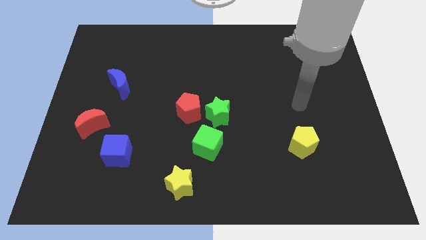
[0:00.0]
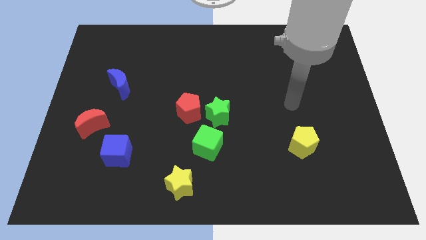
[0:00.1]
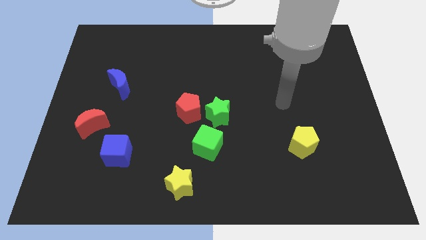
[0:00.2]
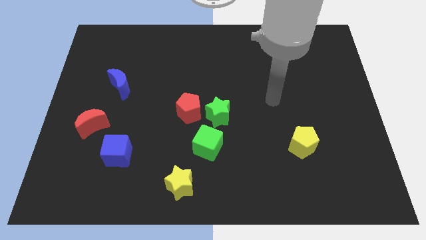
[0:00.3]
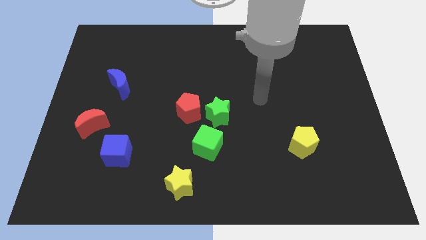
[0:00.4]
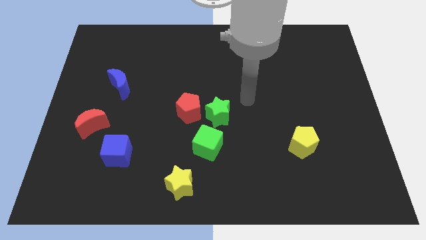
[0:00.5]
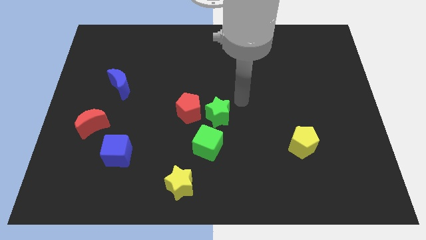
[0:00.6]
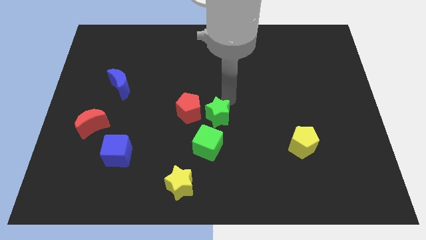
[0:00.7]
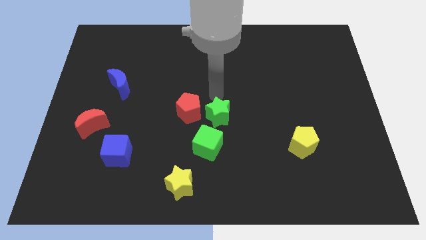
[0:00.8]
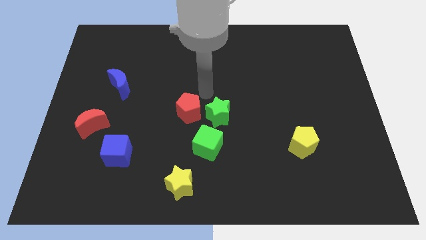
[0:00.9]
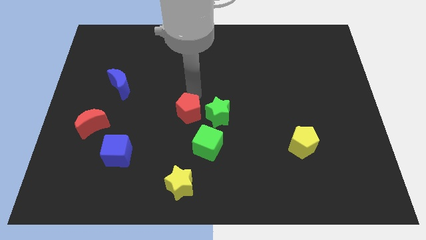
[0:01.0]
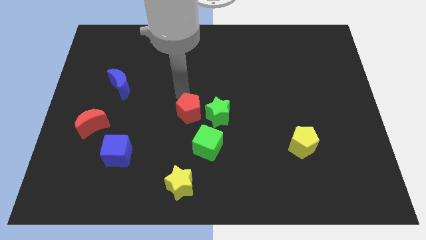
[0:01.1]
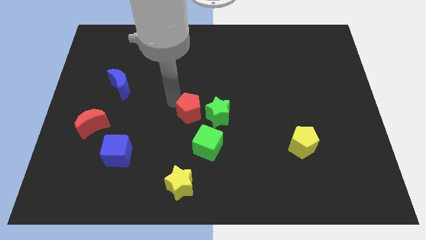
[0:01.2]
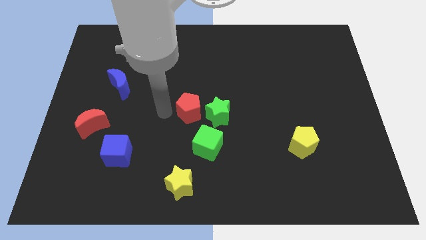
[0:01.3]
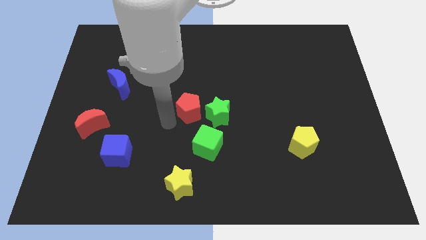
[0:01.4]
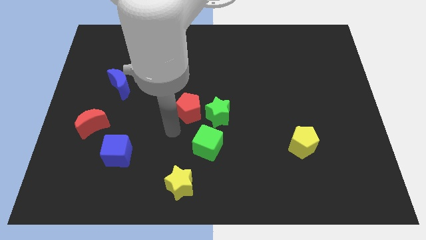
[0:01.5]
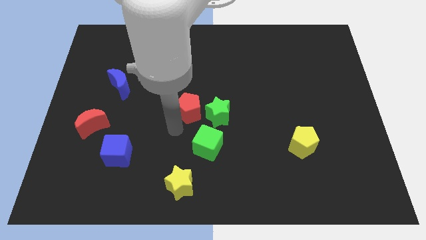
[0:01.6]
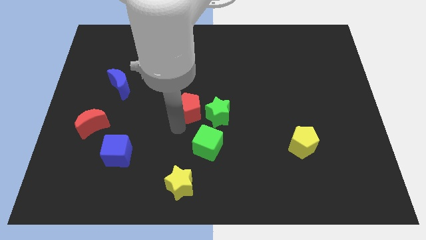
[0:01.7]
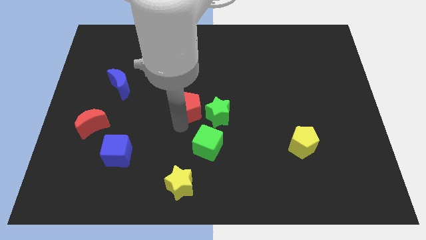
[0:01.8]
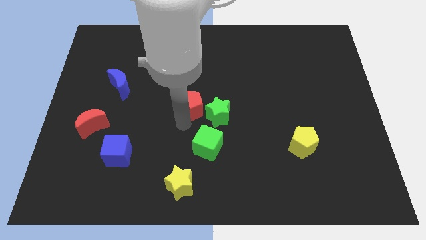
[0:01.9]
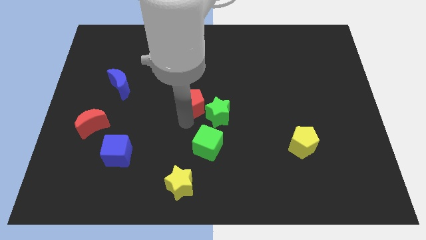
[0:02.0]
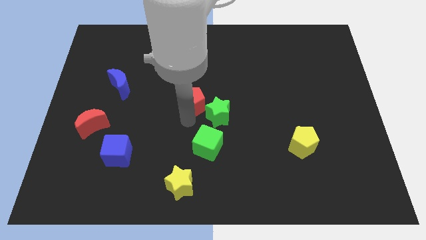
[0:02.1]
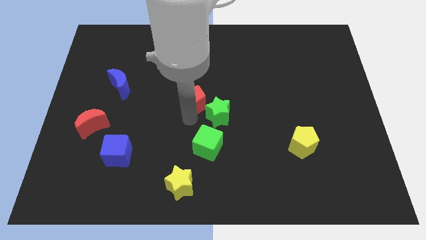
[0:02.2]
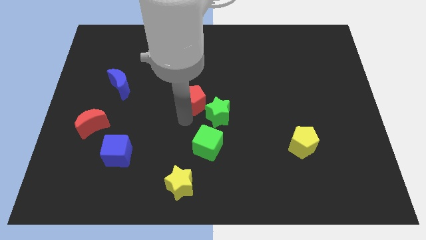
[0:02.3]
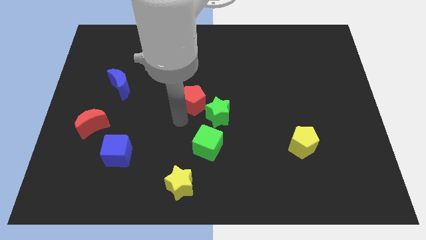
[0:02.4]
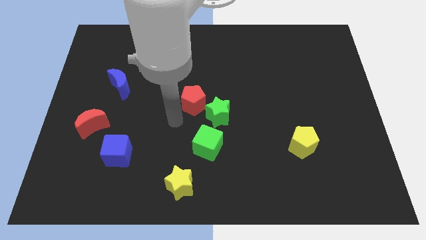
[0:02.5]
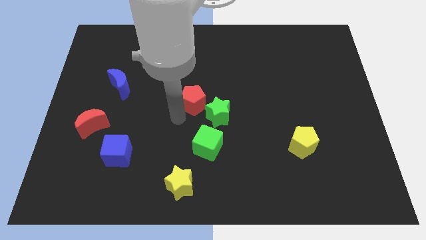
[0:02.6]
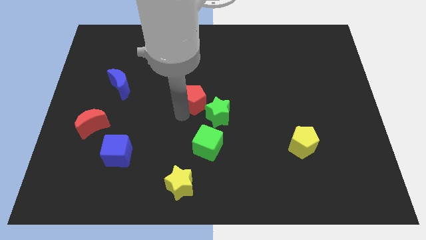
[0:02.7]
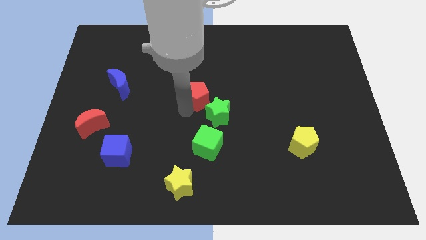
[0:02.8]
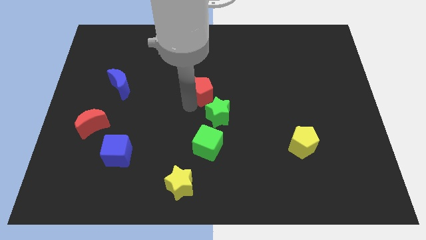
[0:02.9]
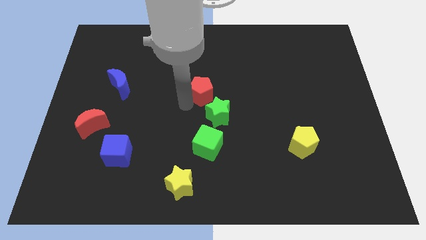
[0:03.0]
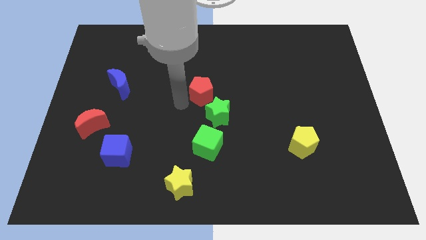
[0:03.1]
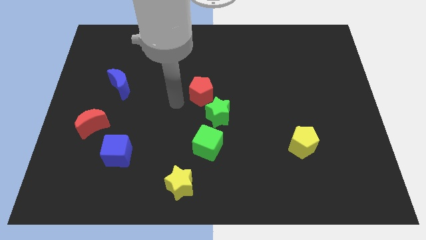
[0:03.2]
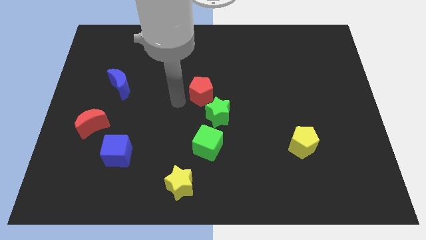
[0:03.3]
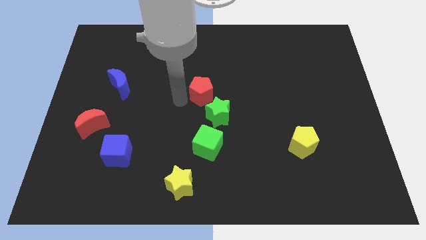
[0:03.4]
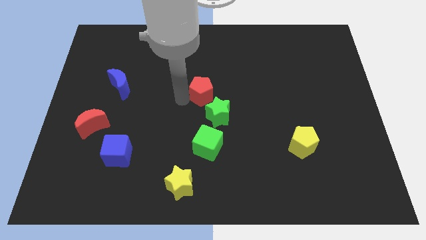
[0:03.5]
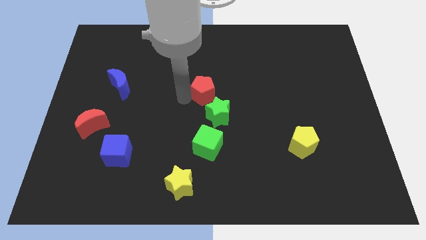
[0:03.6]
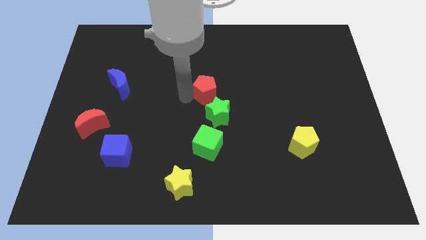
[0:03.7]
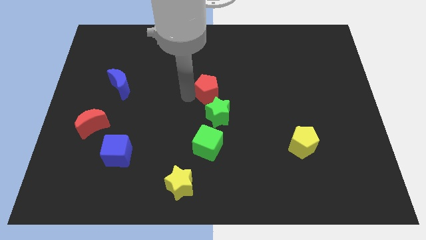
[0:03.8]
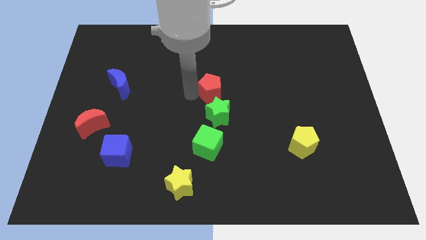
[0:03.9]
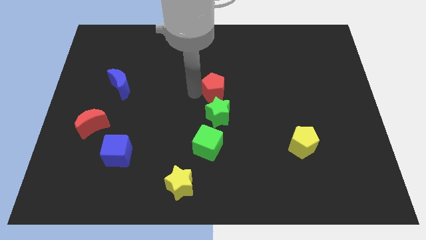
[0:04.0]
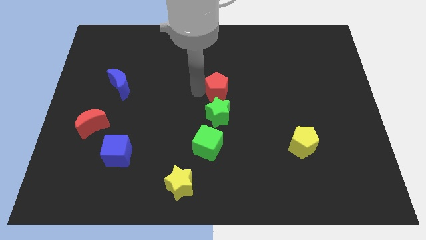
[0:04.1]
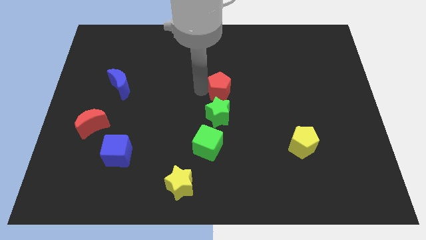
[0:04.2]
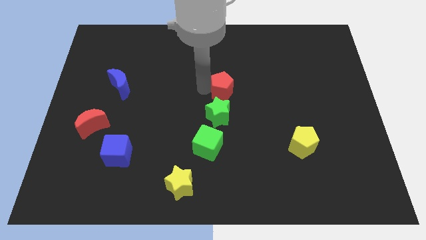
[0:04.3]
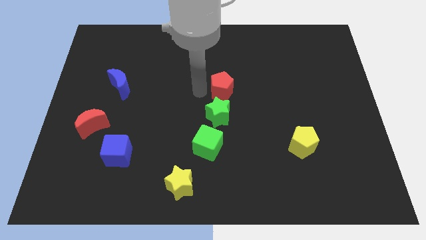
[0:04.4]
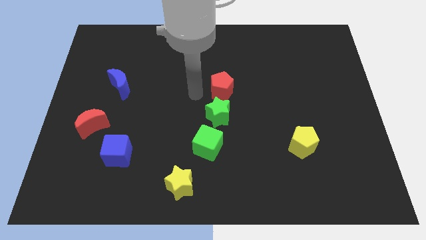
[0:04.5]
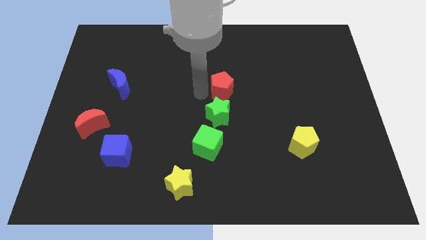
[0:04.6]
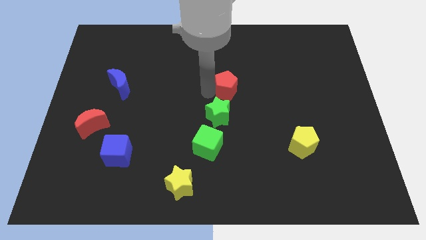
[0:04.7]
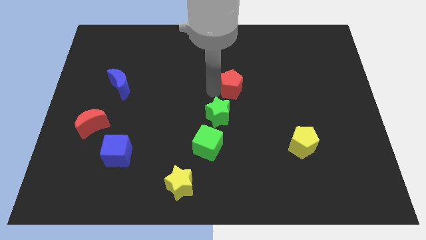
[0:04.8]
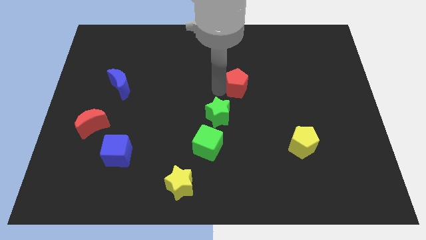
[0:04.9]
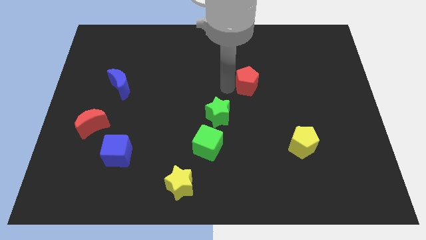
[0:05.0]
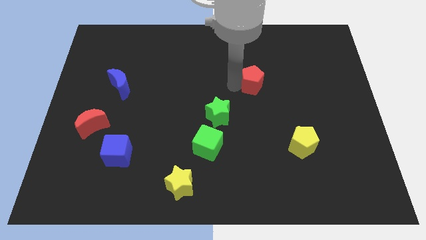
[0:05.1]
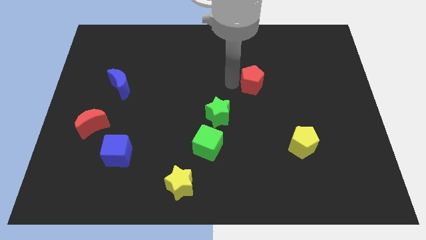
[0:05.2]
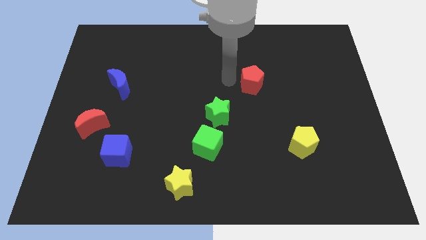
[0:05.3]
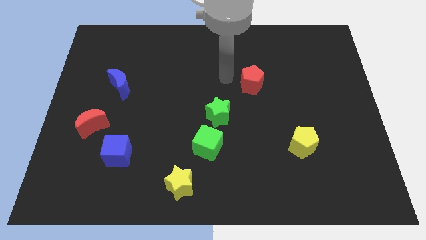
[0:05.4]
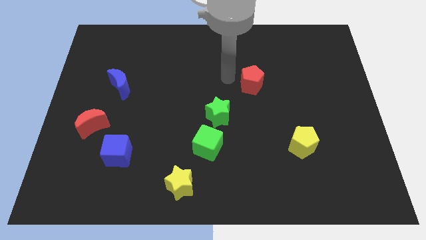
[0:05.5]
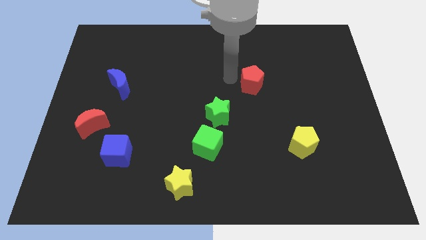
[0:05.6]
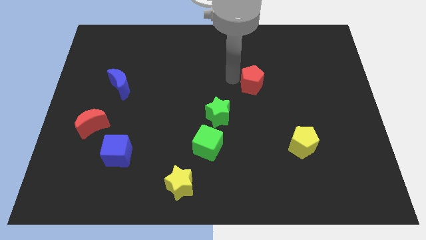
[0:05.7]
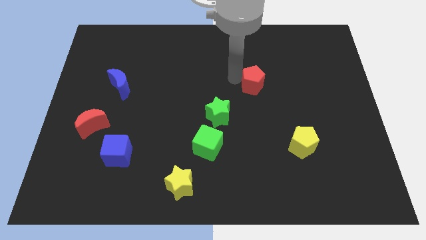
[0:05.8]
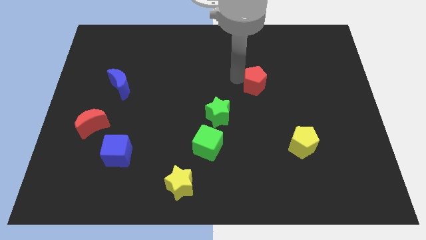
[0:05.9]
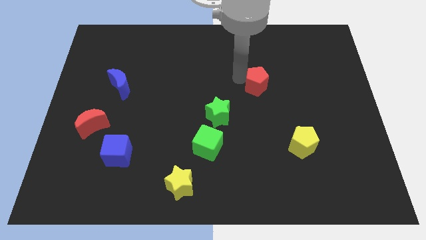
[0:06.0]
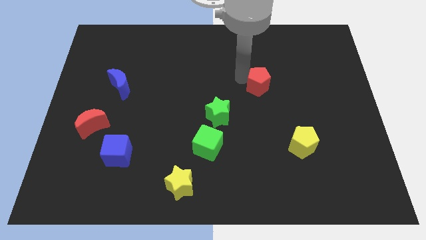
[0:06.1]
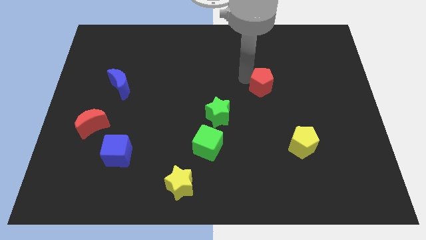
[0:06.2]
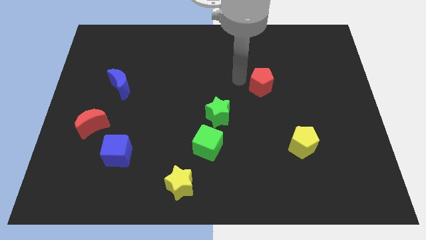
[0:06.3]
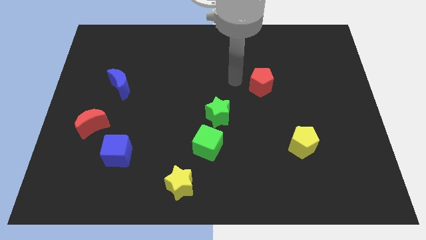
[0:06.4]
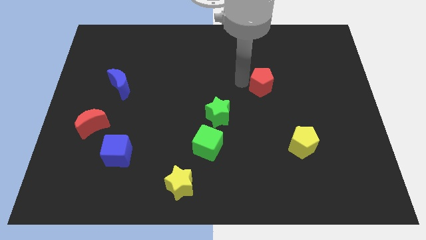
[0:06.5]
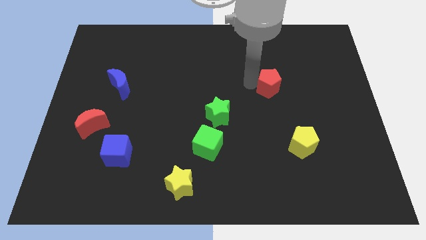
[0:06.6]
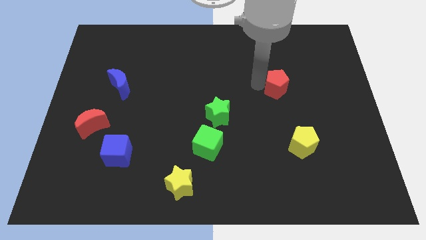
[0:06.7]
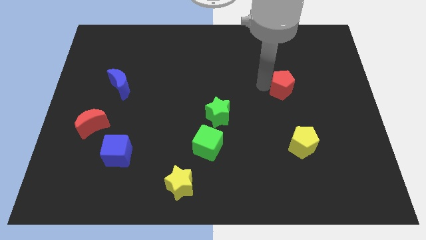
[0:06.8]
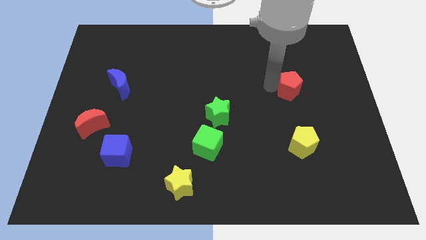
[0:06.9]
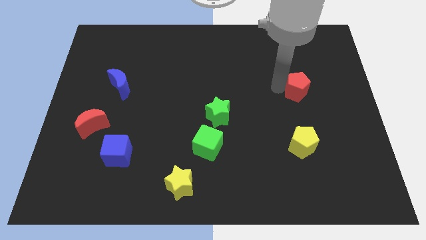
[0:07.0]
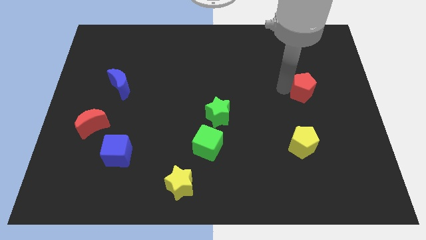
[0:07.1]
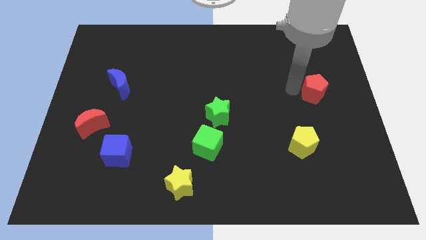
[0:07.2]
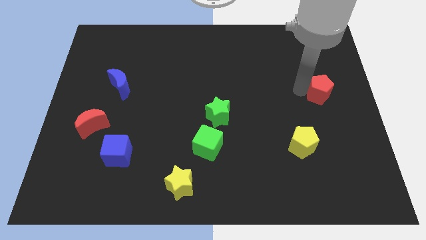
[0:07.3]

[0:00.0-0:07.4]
put the red pentagon to the center right
